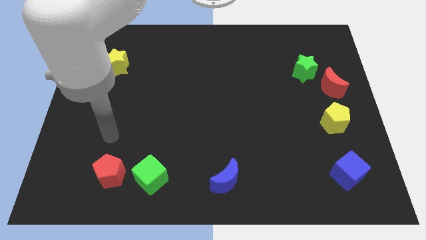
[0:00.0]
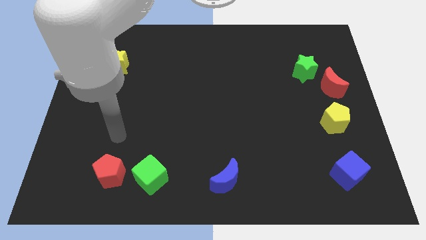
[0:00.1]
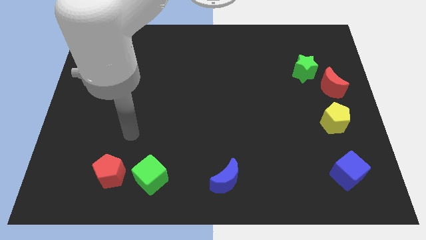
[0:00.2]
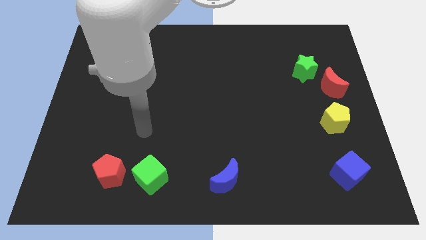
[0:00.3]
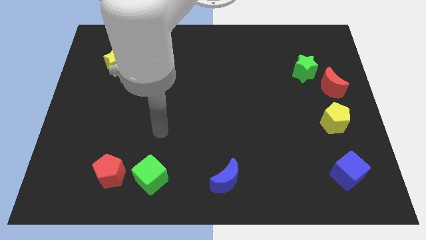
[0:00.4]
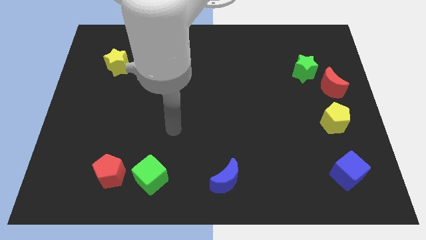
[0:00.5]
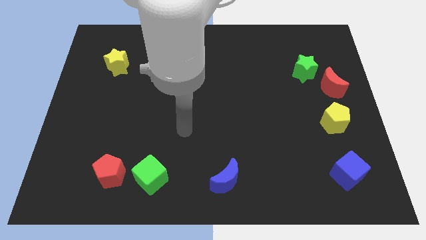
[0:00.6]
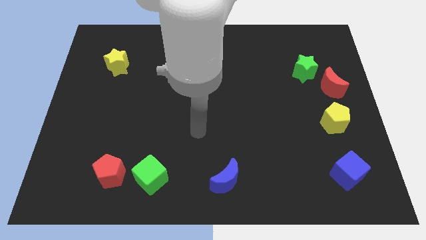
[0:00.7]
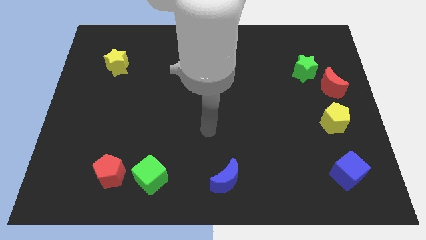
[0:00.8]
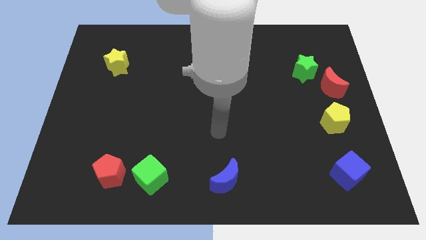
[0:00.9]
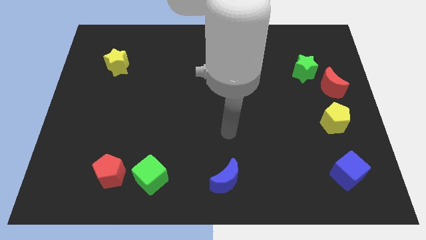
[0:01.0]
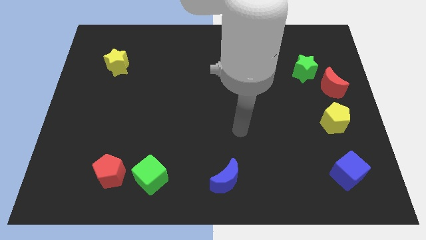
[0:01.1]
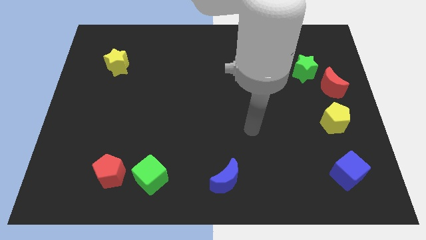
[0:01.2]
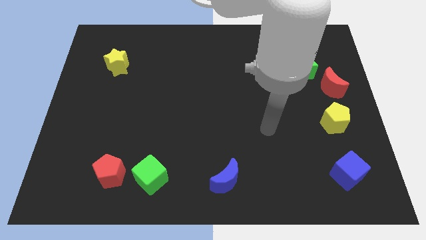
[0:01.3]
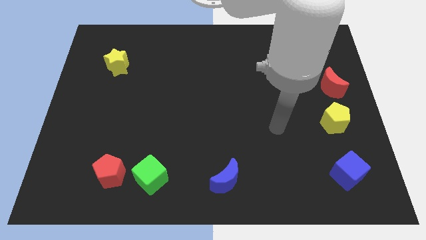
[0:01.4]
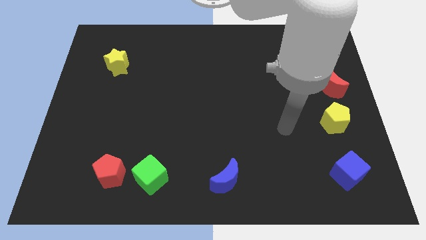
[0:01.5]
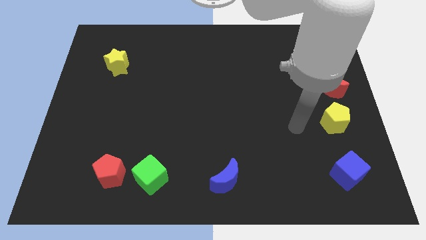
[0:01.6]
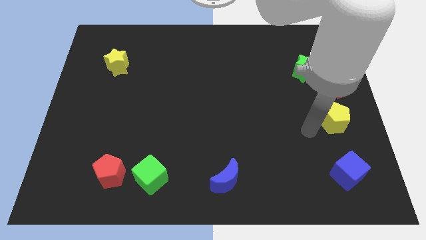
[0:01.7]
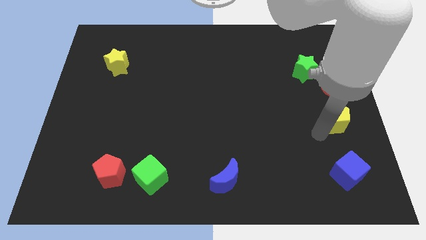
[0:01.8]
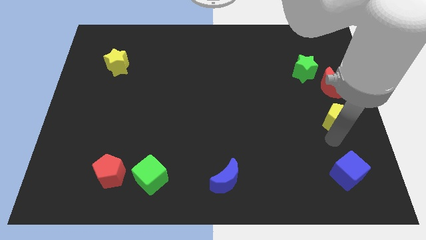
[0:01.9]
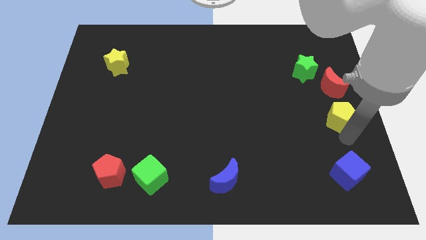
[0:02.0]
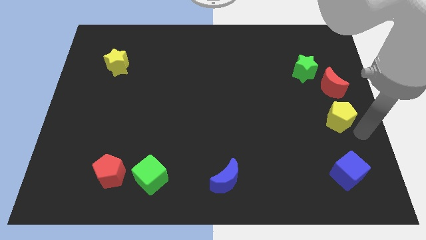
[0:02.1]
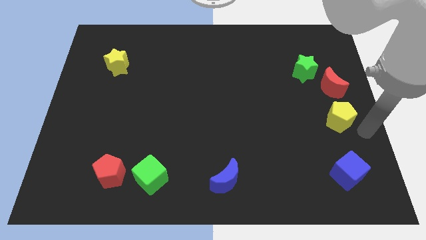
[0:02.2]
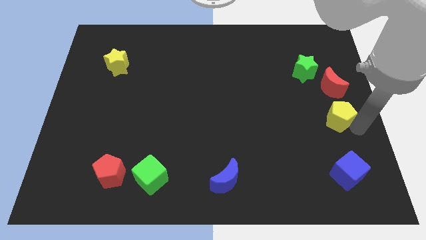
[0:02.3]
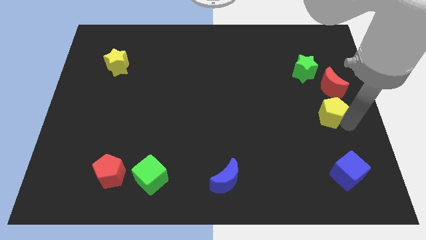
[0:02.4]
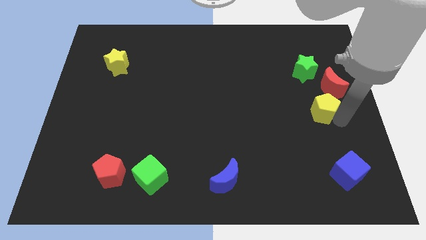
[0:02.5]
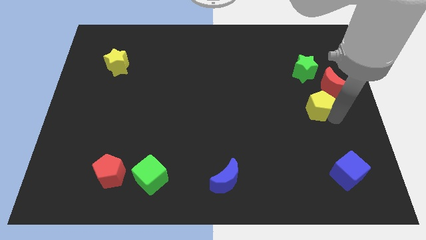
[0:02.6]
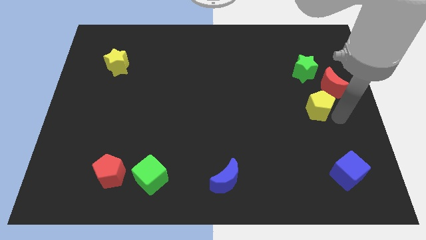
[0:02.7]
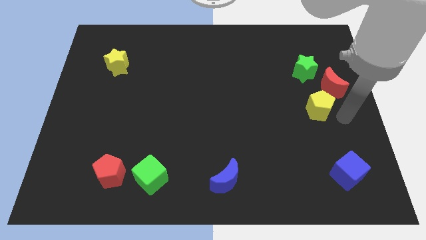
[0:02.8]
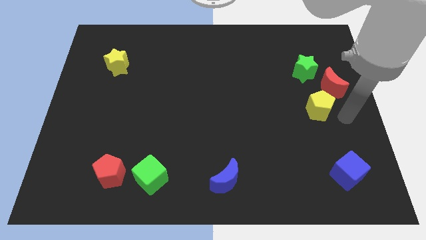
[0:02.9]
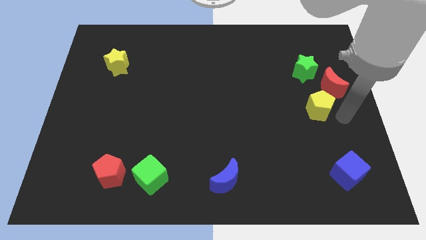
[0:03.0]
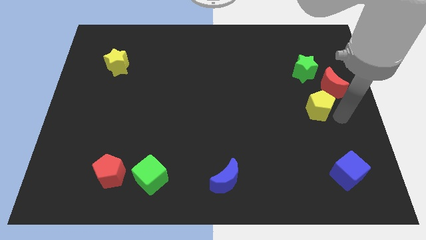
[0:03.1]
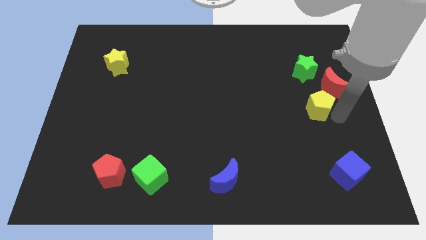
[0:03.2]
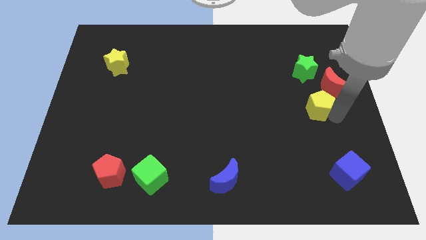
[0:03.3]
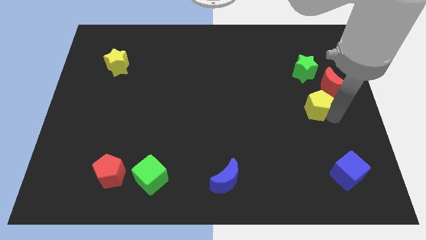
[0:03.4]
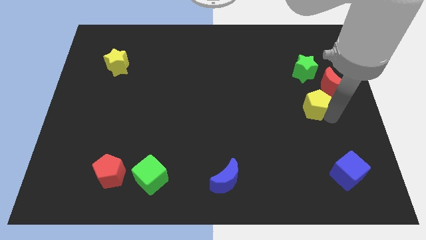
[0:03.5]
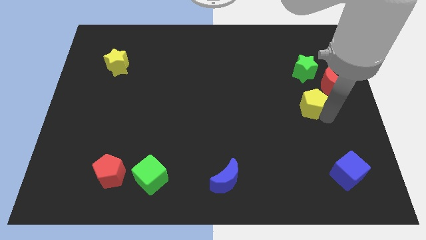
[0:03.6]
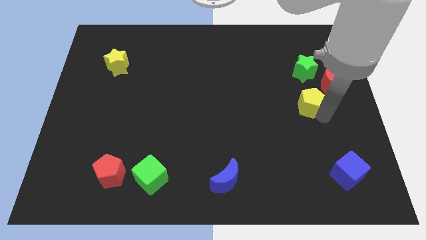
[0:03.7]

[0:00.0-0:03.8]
slightly move the yellow pentagon diagonally upwards and left

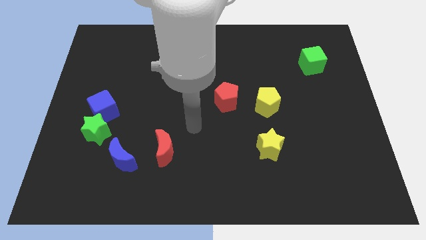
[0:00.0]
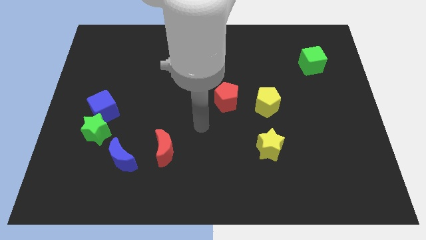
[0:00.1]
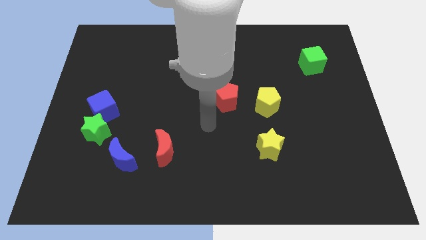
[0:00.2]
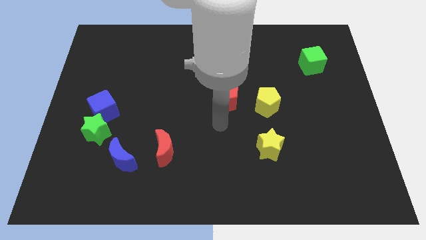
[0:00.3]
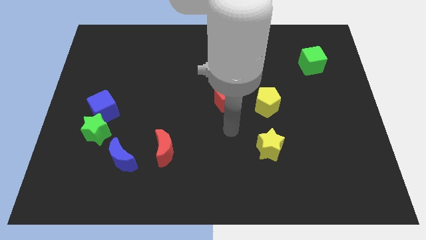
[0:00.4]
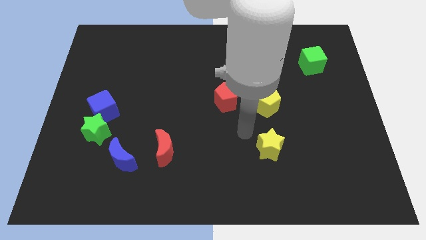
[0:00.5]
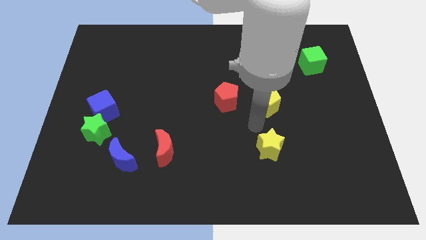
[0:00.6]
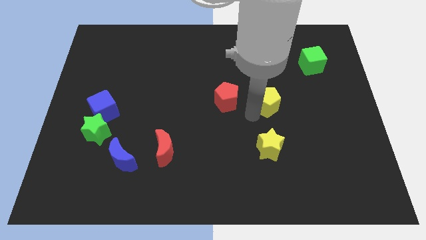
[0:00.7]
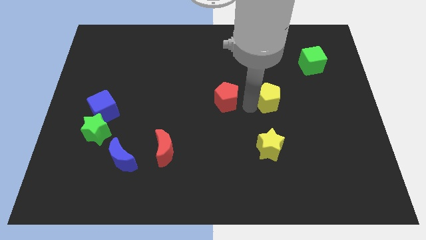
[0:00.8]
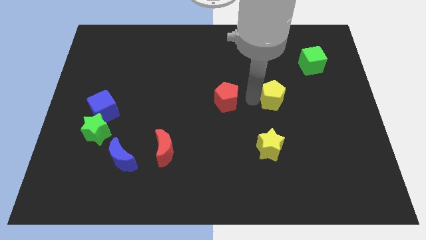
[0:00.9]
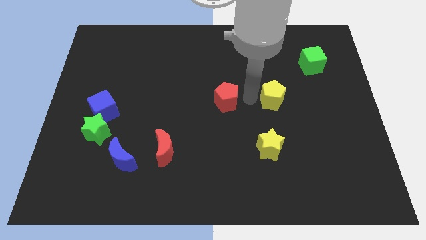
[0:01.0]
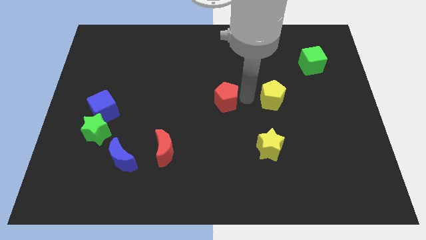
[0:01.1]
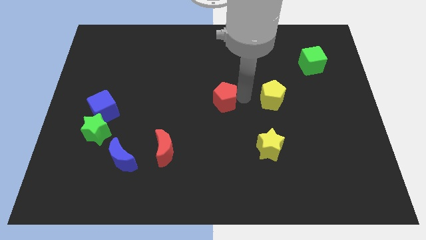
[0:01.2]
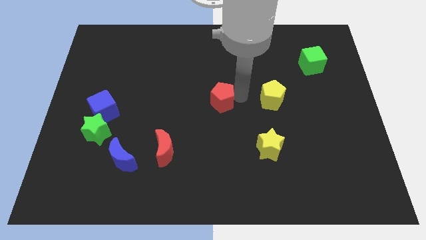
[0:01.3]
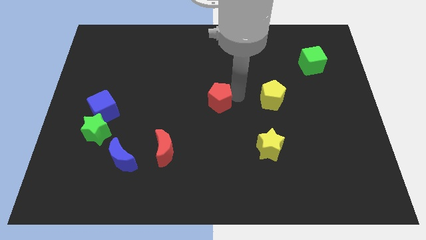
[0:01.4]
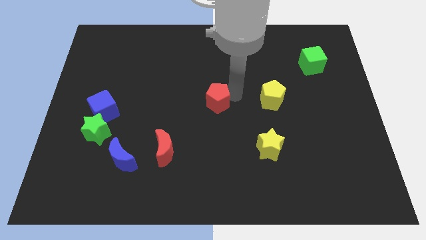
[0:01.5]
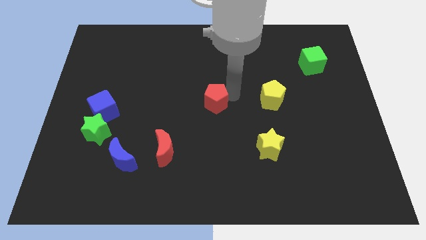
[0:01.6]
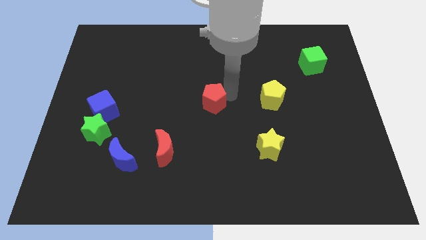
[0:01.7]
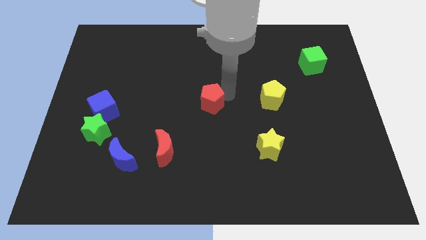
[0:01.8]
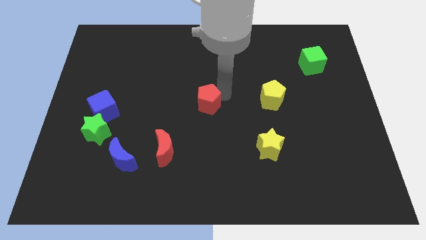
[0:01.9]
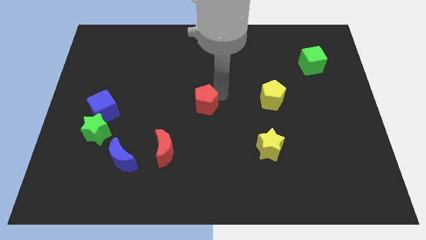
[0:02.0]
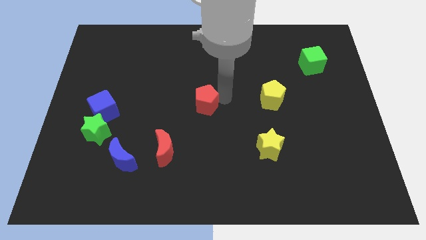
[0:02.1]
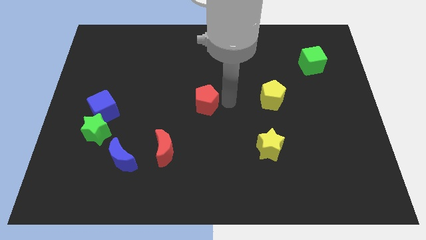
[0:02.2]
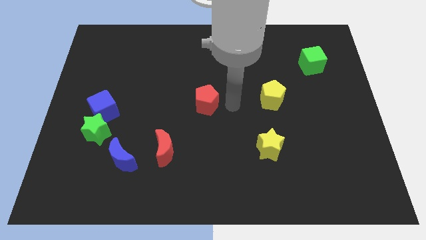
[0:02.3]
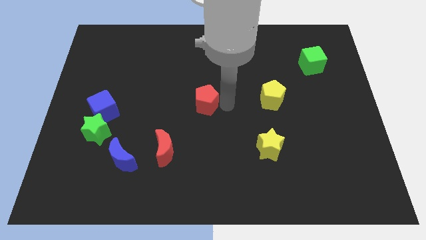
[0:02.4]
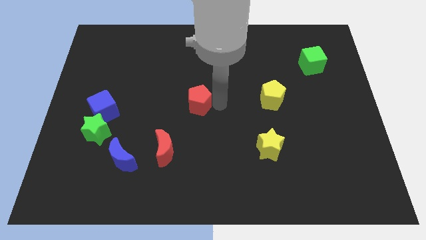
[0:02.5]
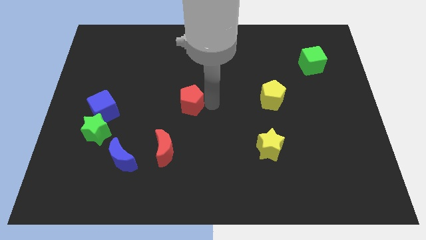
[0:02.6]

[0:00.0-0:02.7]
slide the red pentagon a bit to the left

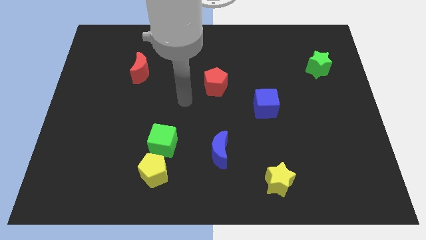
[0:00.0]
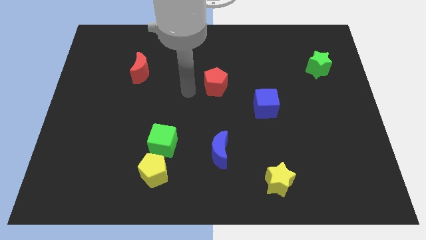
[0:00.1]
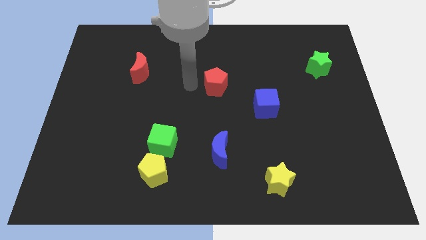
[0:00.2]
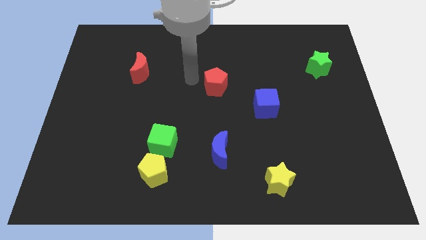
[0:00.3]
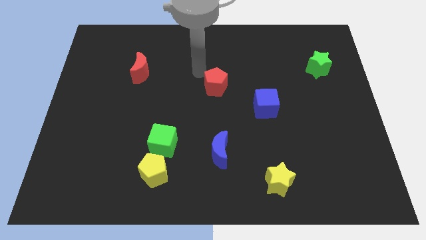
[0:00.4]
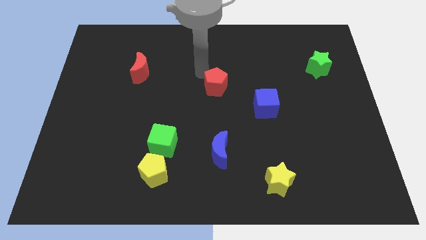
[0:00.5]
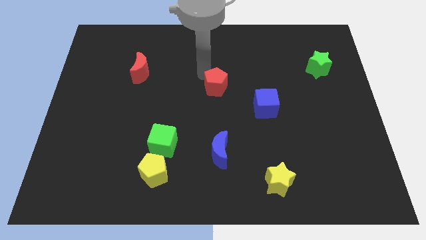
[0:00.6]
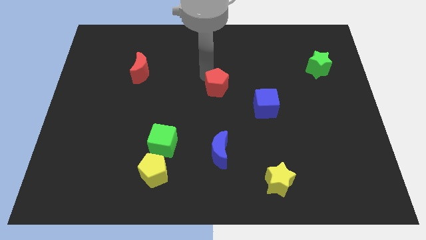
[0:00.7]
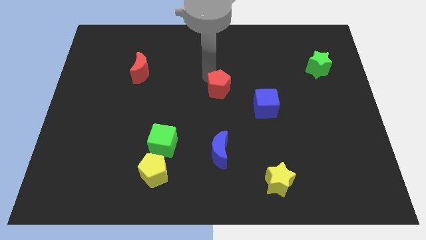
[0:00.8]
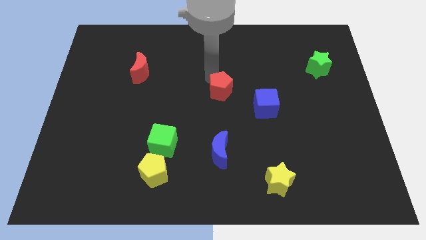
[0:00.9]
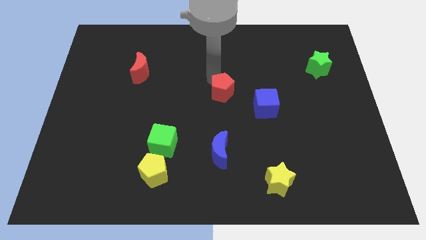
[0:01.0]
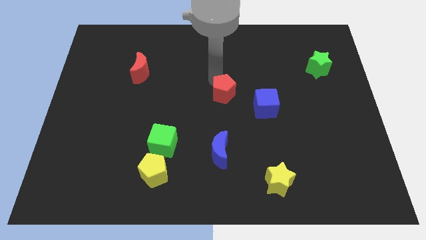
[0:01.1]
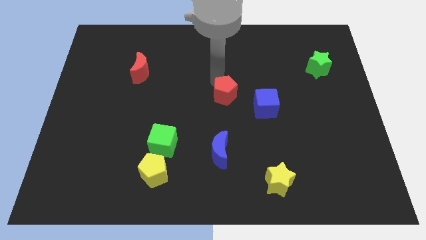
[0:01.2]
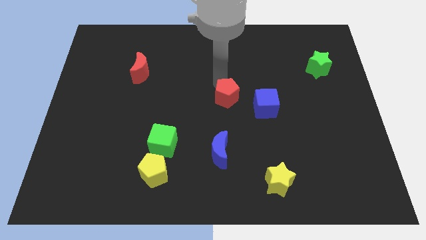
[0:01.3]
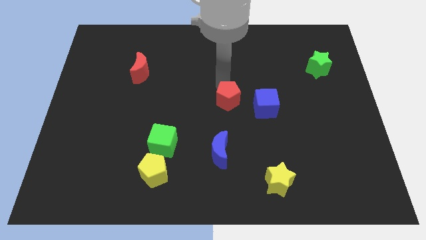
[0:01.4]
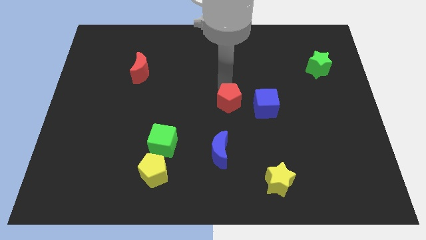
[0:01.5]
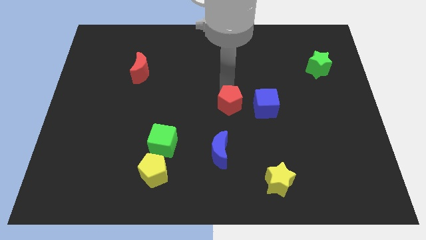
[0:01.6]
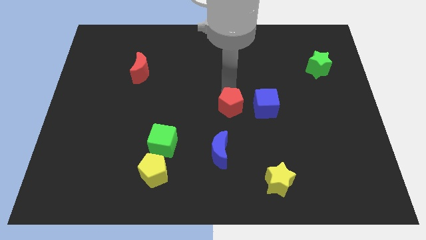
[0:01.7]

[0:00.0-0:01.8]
slightly slide the red pentagon down and to the right
